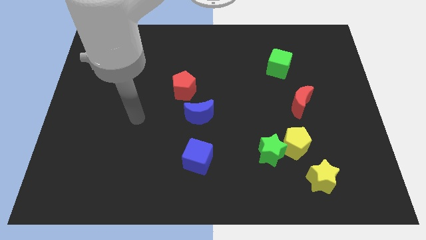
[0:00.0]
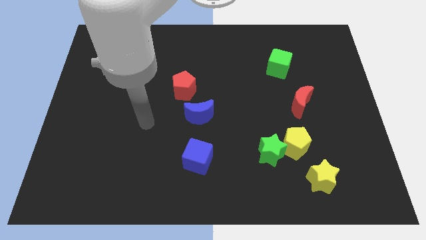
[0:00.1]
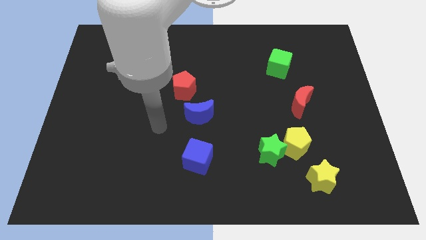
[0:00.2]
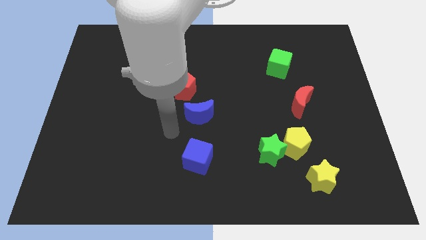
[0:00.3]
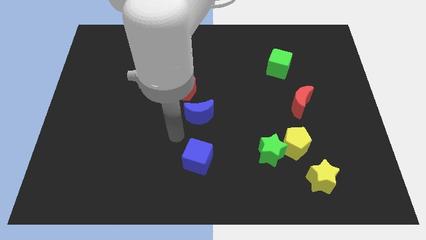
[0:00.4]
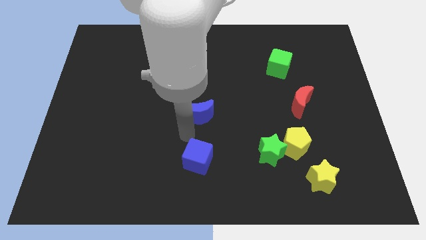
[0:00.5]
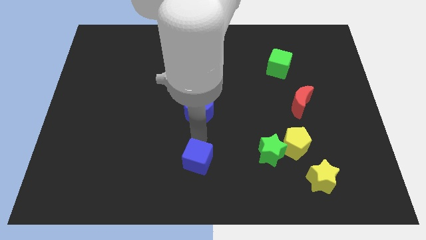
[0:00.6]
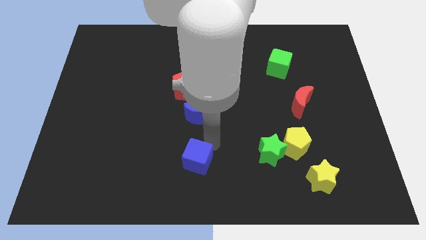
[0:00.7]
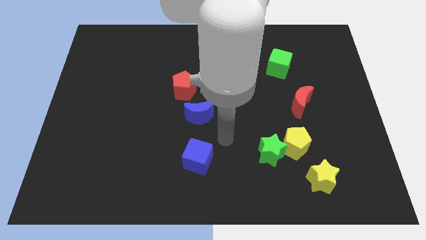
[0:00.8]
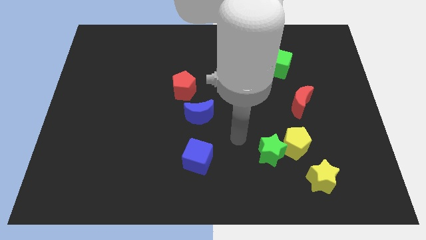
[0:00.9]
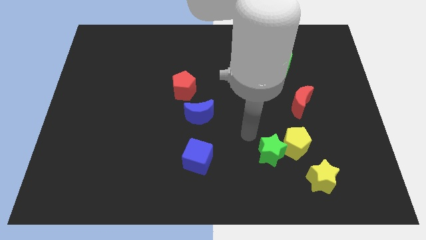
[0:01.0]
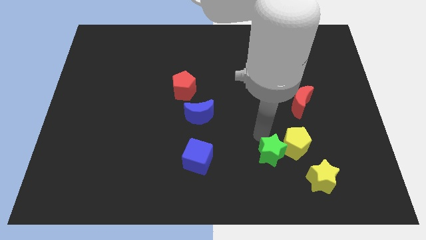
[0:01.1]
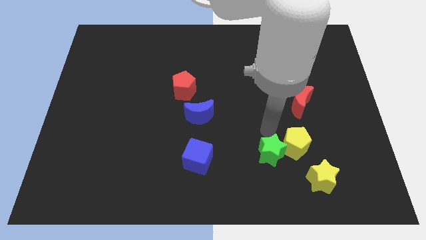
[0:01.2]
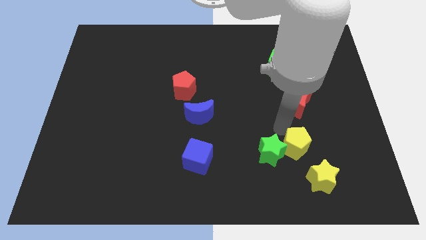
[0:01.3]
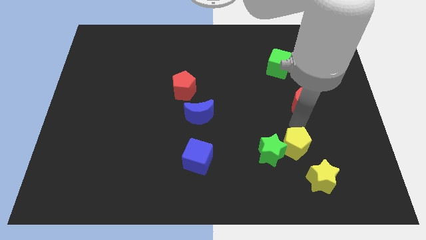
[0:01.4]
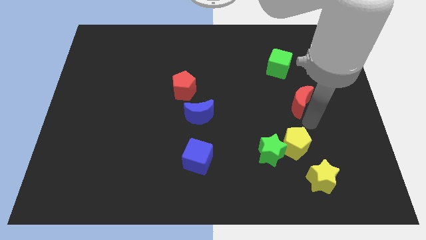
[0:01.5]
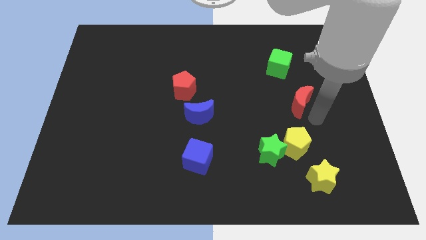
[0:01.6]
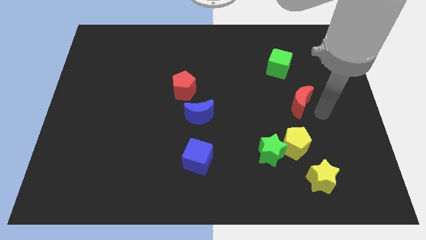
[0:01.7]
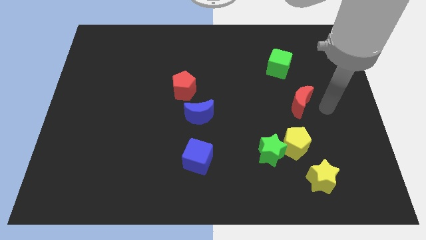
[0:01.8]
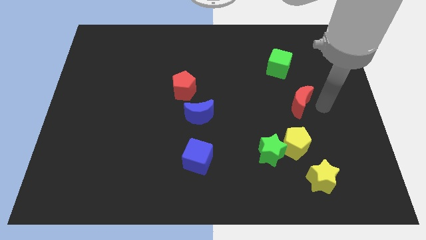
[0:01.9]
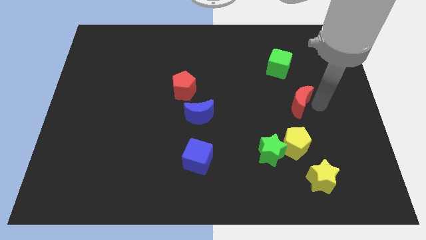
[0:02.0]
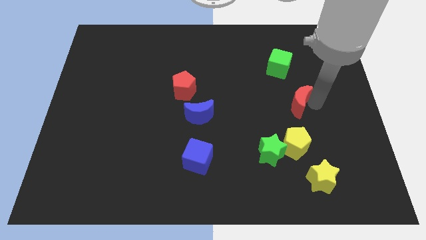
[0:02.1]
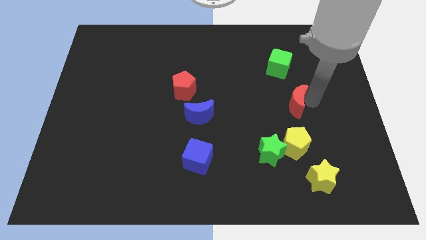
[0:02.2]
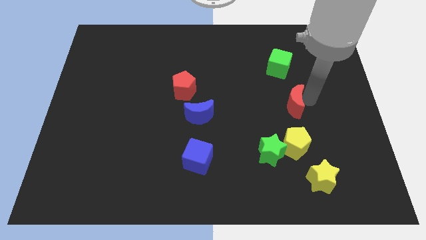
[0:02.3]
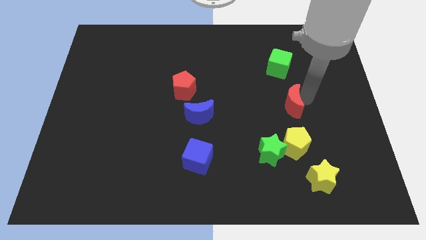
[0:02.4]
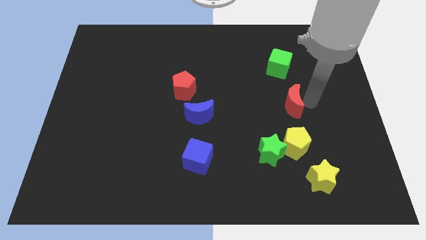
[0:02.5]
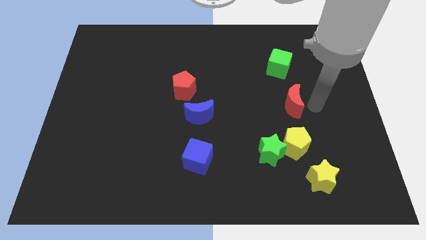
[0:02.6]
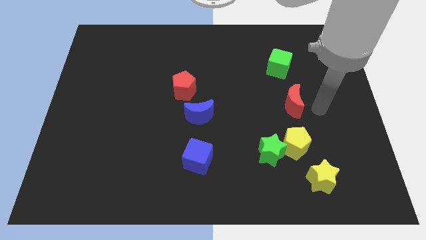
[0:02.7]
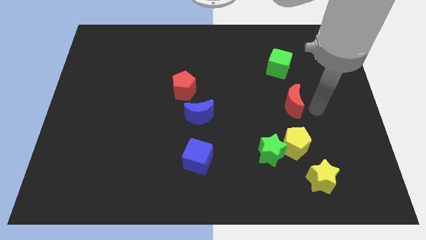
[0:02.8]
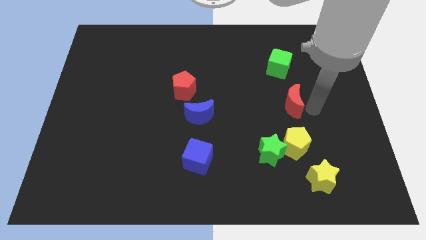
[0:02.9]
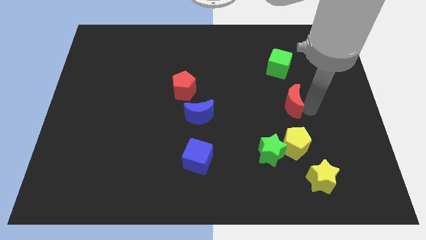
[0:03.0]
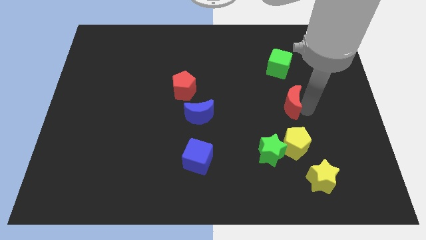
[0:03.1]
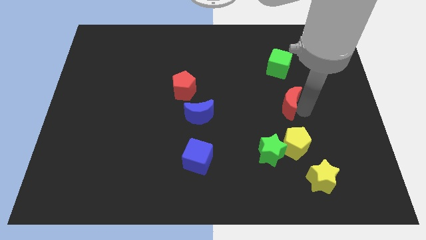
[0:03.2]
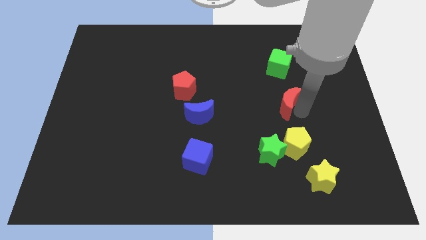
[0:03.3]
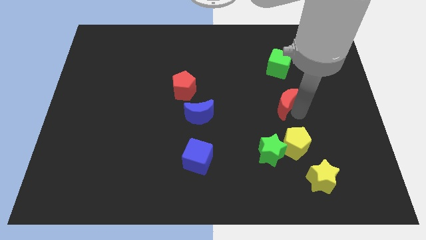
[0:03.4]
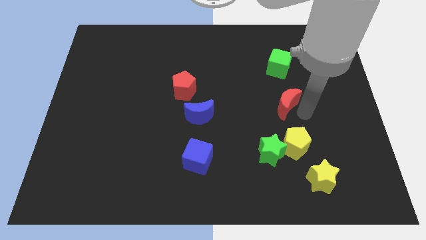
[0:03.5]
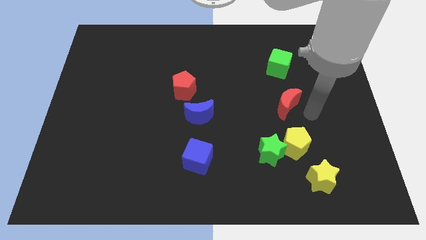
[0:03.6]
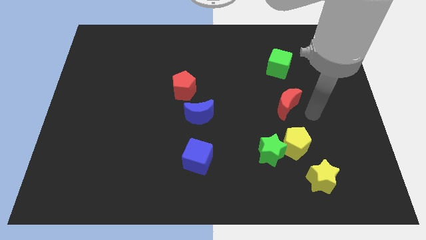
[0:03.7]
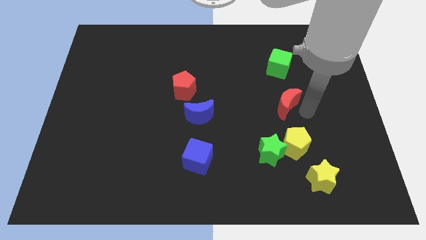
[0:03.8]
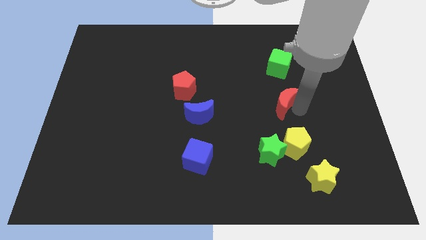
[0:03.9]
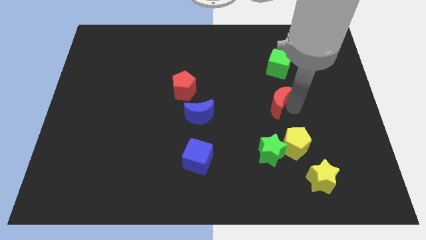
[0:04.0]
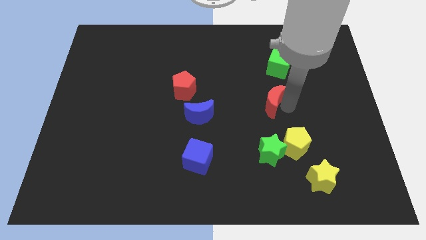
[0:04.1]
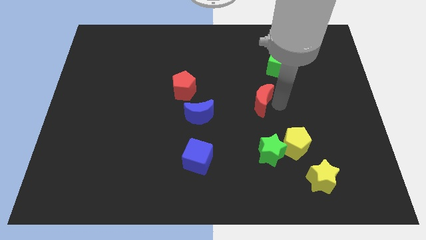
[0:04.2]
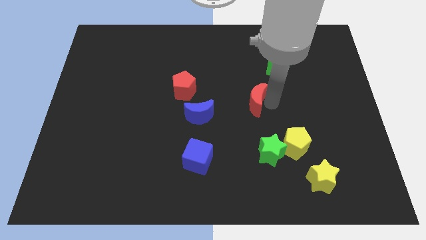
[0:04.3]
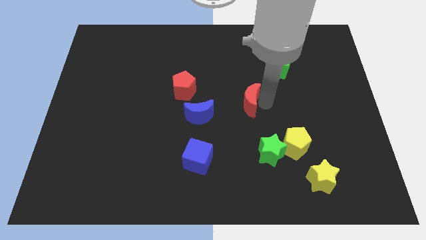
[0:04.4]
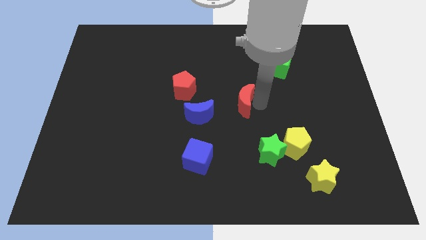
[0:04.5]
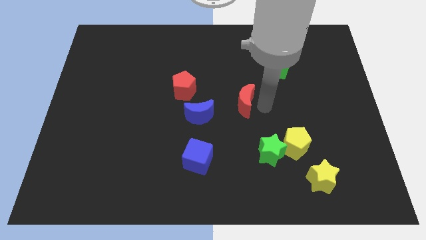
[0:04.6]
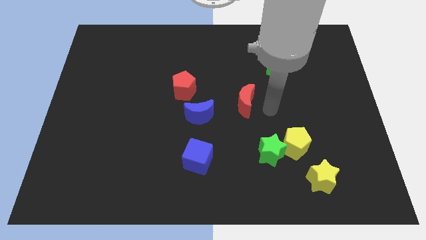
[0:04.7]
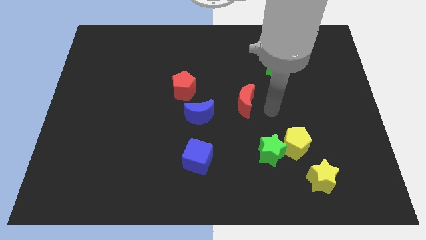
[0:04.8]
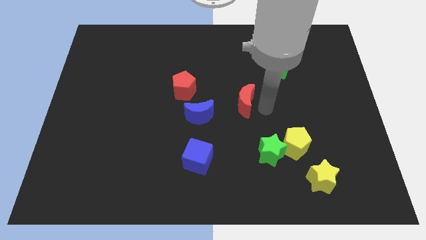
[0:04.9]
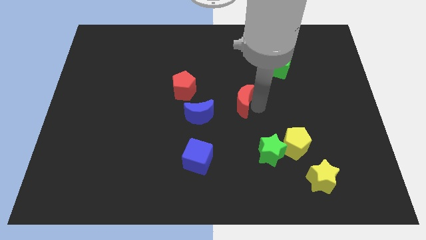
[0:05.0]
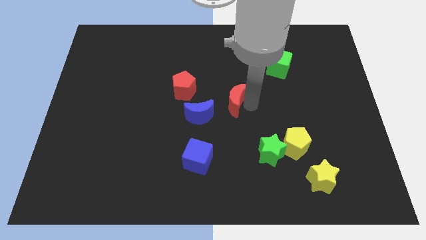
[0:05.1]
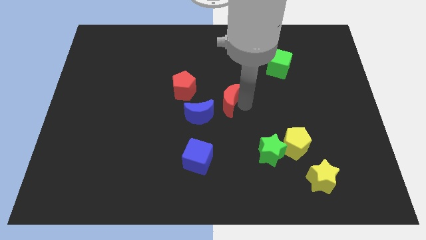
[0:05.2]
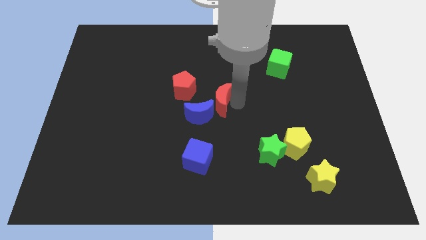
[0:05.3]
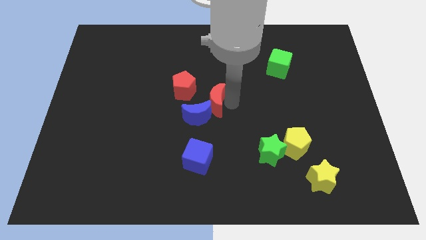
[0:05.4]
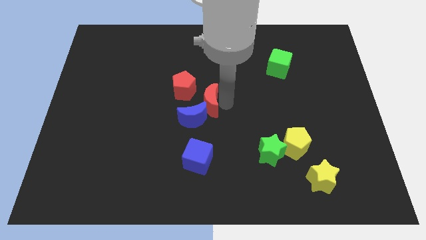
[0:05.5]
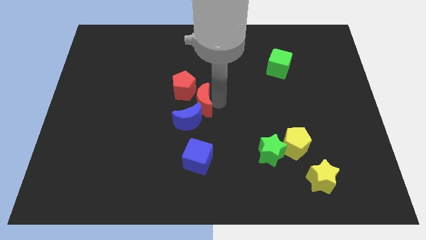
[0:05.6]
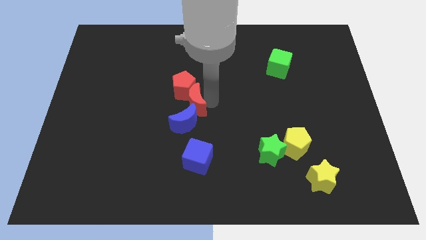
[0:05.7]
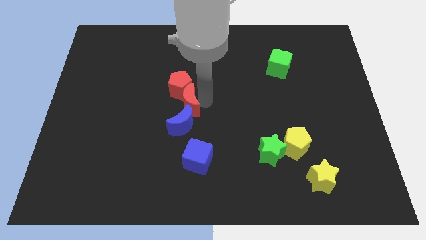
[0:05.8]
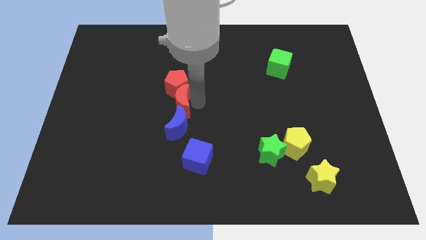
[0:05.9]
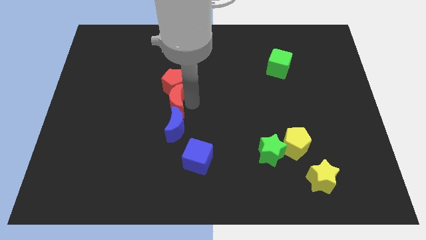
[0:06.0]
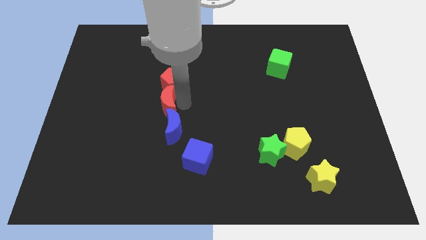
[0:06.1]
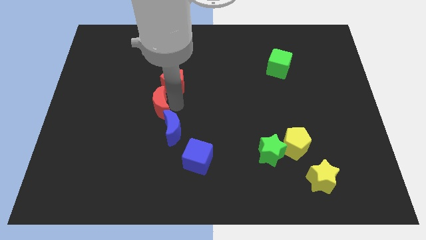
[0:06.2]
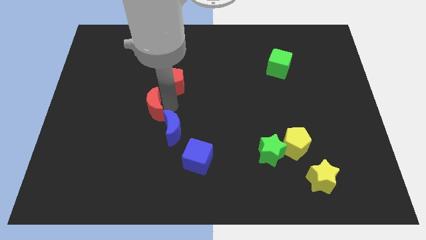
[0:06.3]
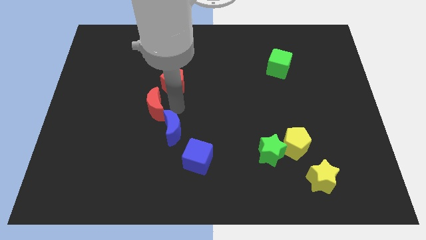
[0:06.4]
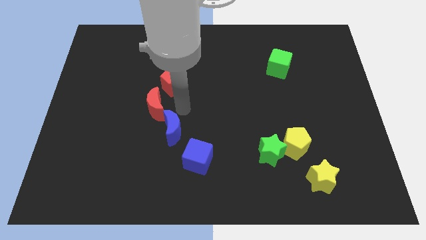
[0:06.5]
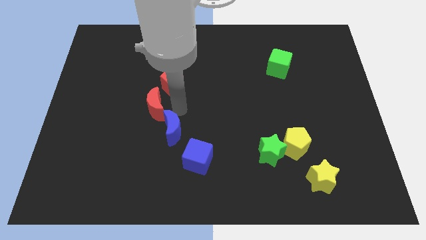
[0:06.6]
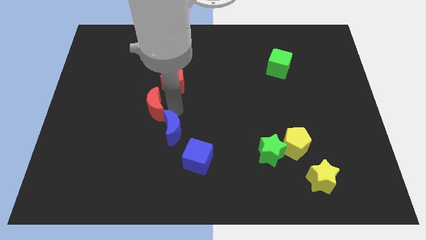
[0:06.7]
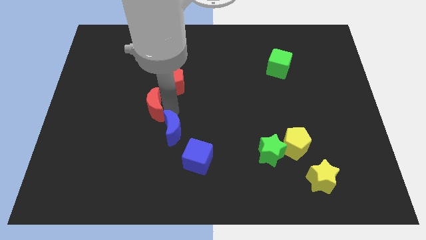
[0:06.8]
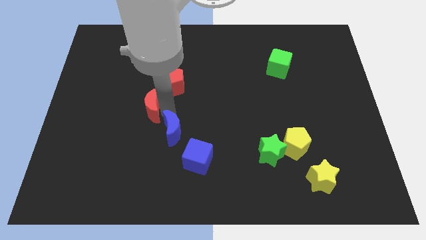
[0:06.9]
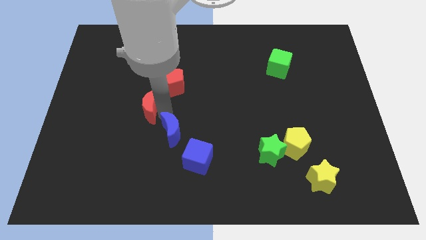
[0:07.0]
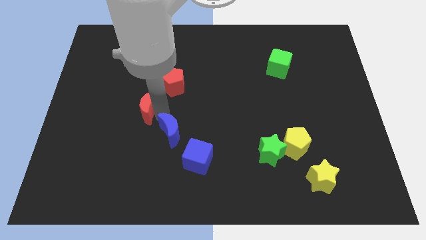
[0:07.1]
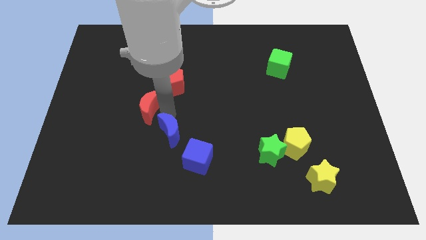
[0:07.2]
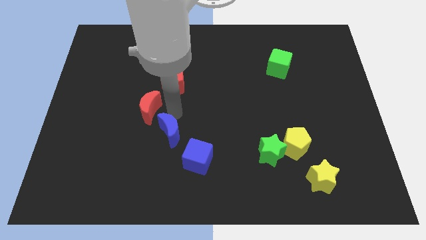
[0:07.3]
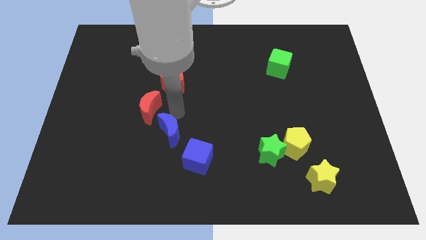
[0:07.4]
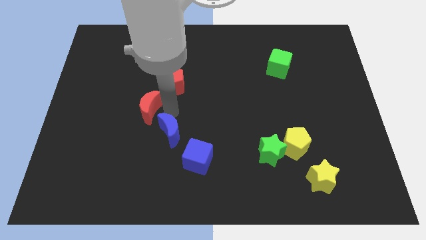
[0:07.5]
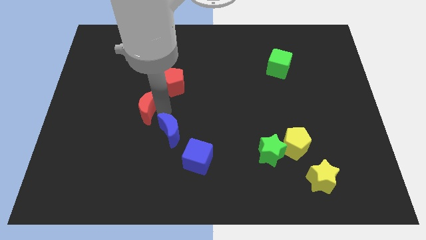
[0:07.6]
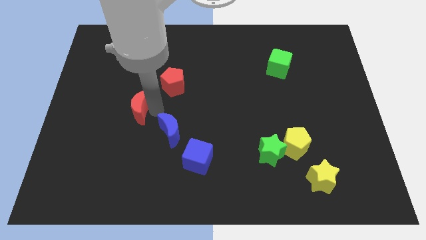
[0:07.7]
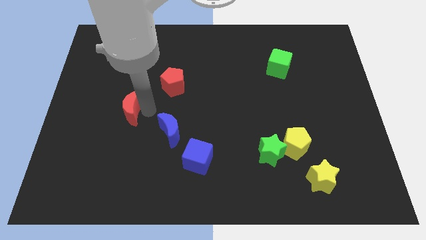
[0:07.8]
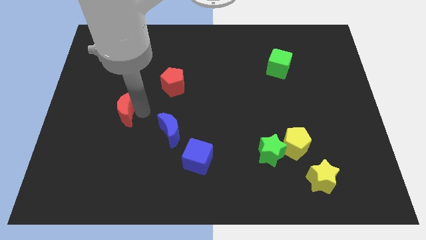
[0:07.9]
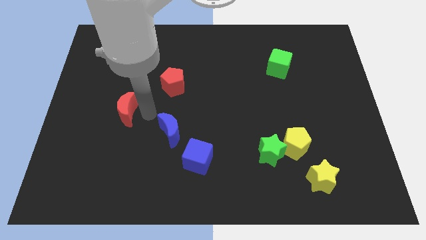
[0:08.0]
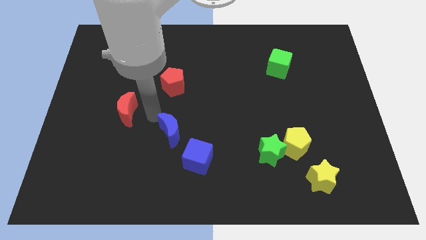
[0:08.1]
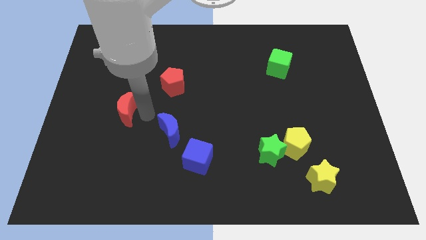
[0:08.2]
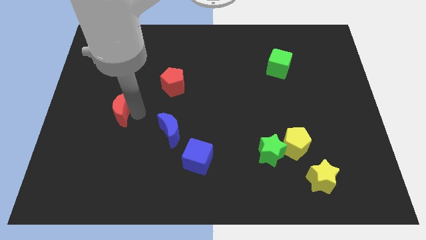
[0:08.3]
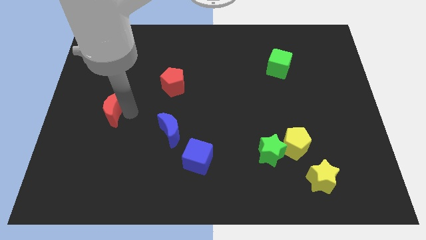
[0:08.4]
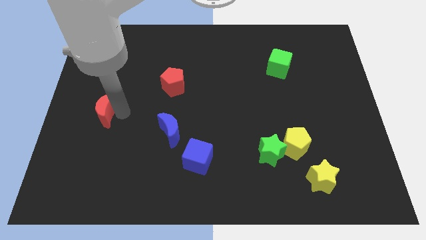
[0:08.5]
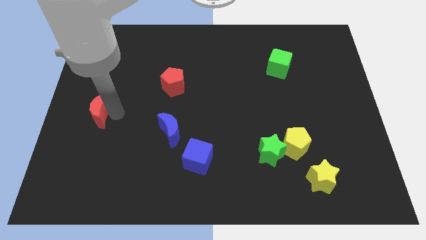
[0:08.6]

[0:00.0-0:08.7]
push the red moon to the center left
